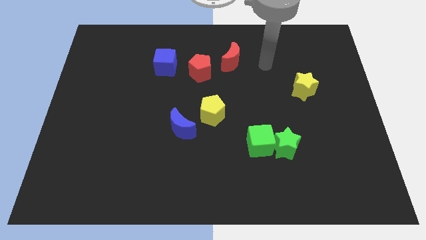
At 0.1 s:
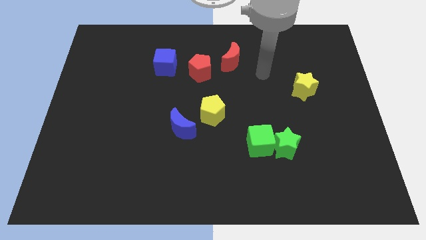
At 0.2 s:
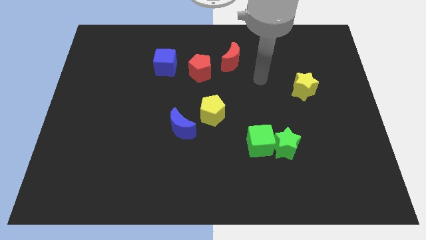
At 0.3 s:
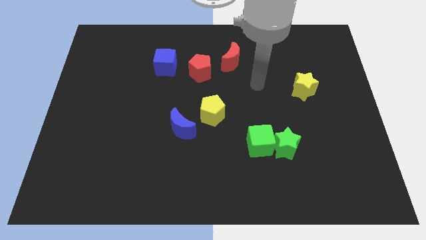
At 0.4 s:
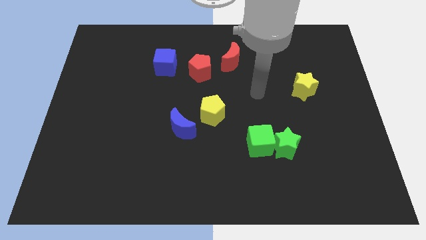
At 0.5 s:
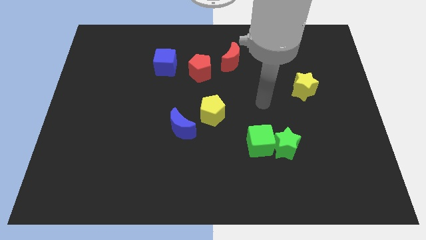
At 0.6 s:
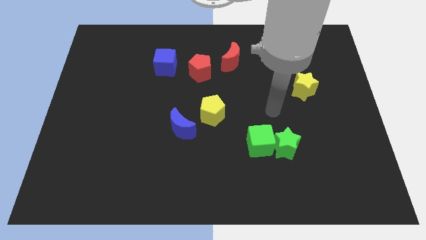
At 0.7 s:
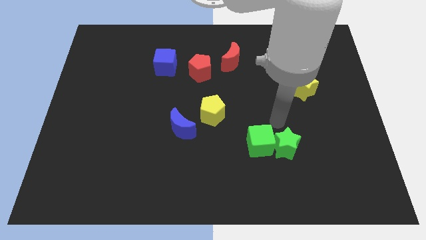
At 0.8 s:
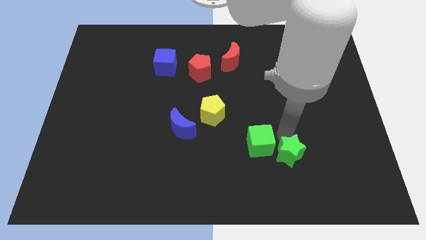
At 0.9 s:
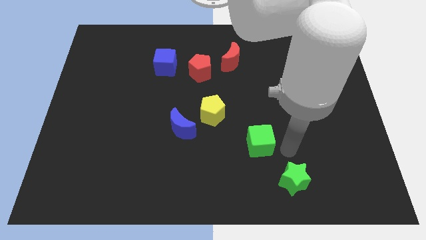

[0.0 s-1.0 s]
separate the green cube from the green star

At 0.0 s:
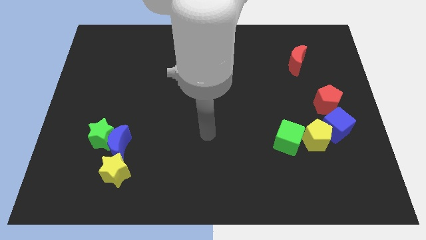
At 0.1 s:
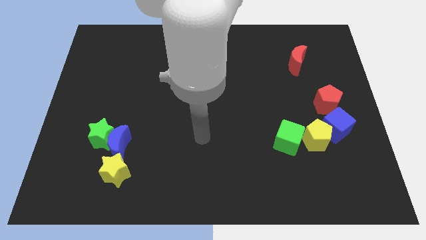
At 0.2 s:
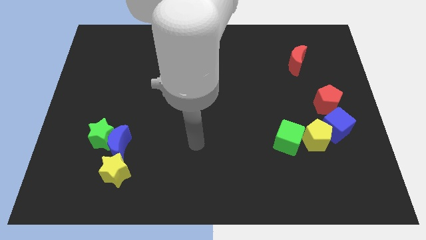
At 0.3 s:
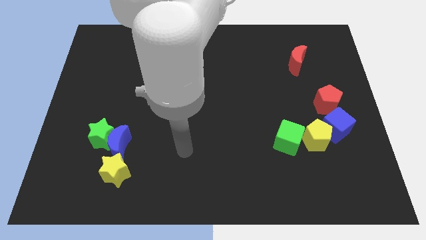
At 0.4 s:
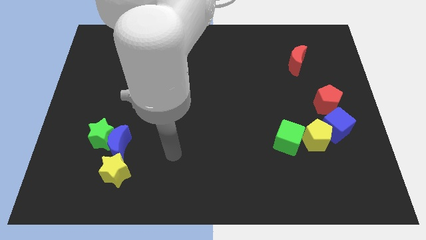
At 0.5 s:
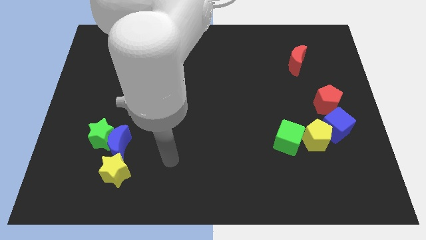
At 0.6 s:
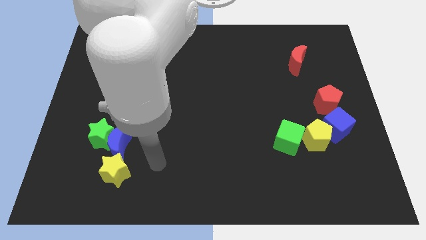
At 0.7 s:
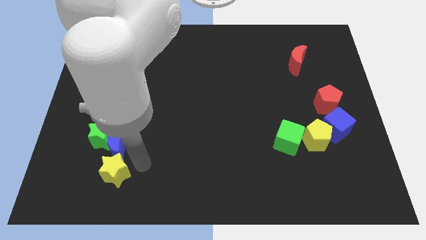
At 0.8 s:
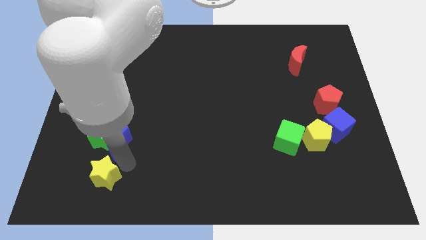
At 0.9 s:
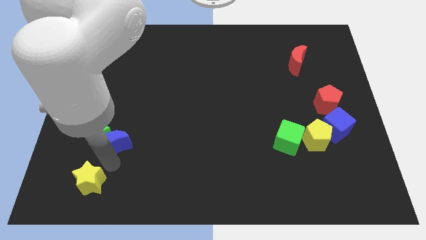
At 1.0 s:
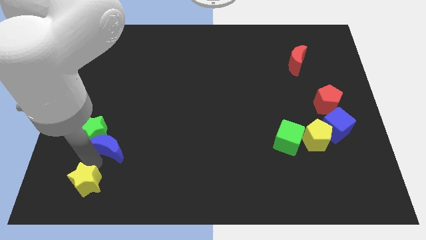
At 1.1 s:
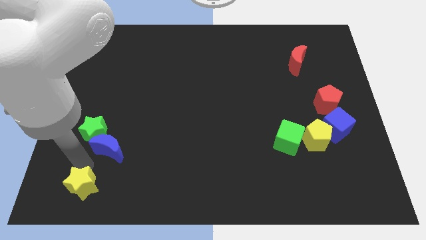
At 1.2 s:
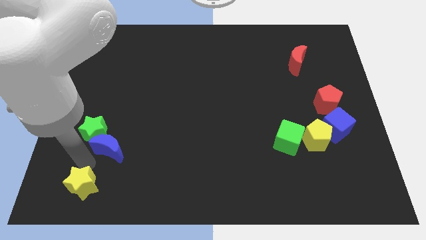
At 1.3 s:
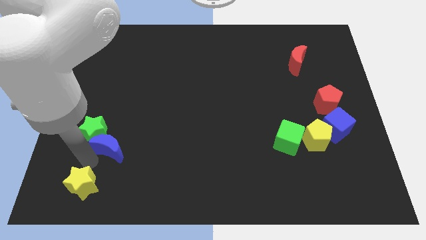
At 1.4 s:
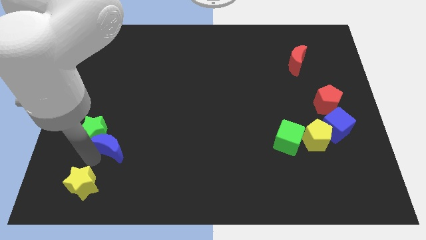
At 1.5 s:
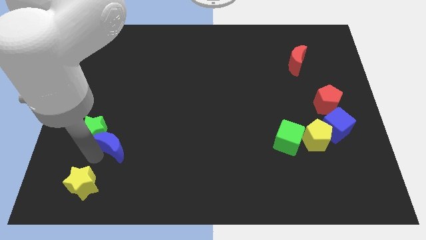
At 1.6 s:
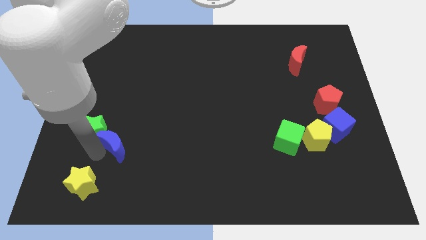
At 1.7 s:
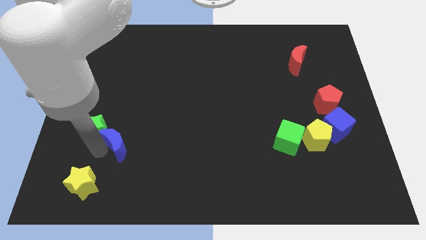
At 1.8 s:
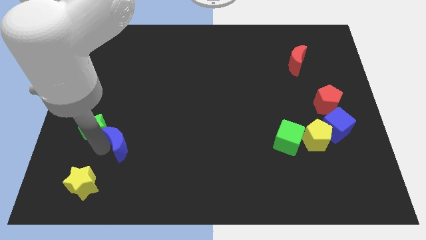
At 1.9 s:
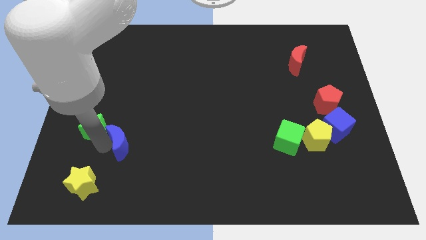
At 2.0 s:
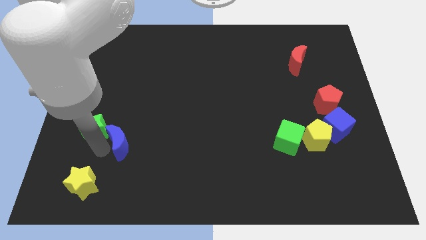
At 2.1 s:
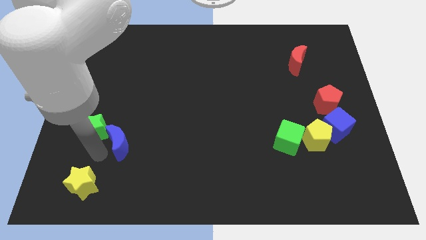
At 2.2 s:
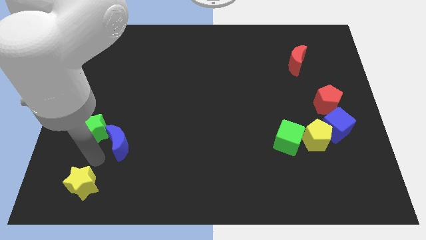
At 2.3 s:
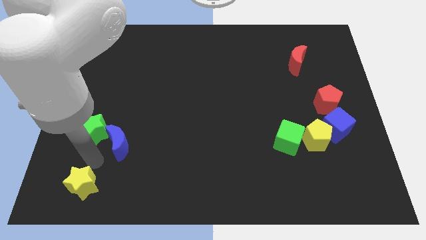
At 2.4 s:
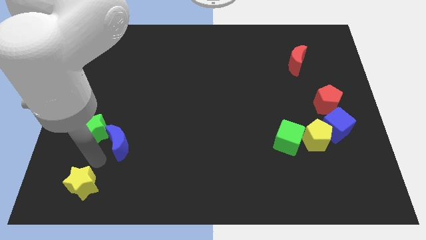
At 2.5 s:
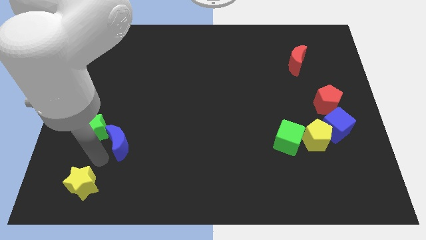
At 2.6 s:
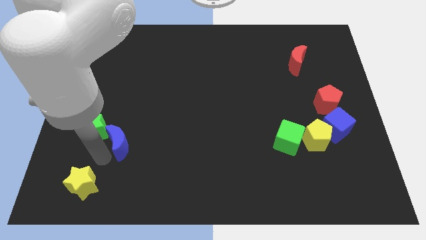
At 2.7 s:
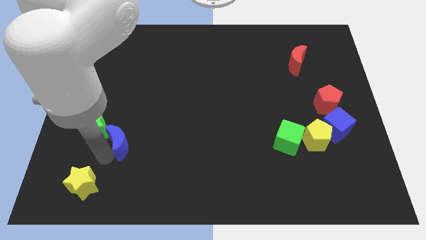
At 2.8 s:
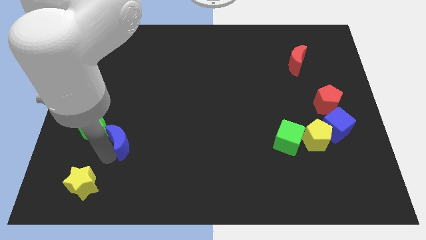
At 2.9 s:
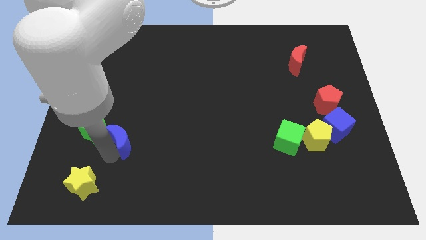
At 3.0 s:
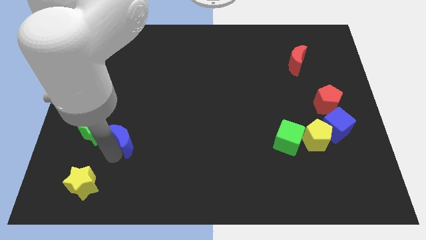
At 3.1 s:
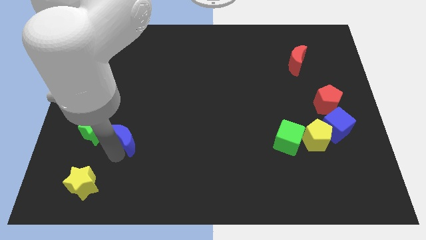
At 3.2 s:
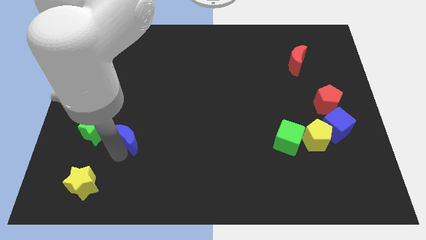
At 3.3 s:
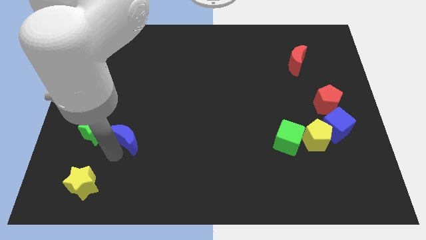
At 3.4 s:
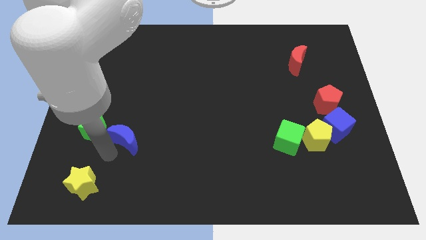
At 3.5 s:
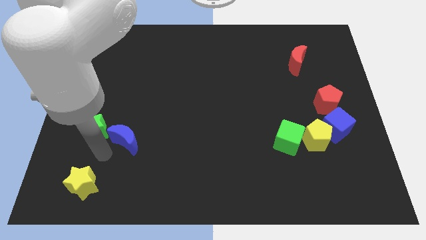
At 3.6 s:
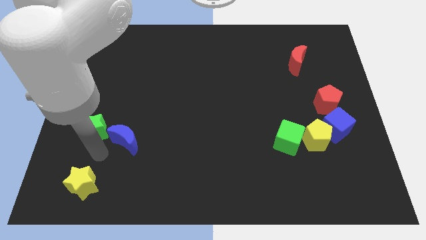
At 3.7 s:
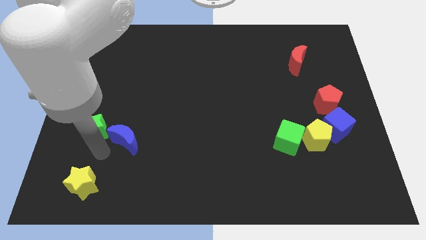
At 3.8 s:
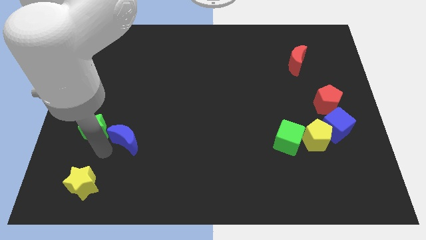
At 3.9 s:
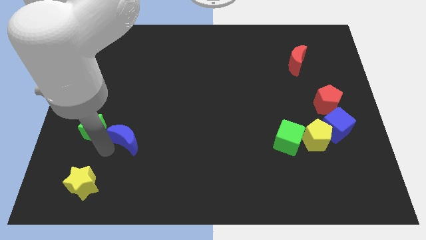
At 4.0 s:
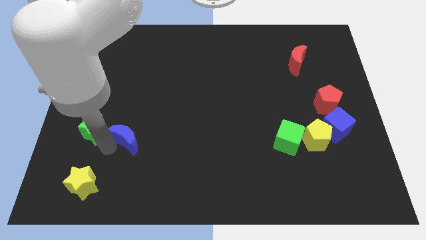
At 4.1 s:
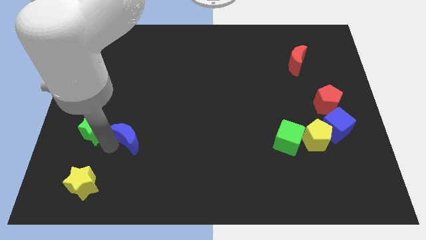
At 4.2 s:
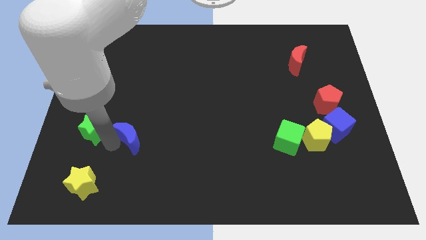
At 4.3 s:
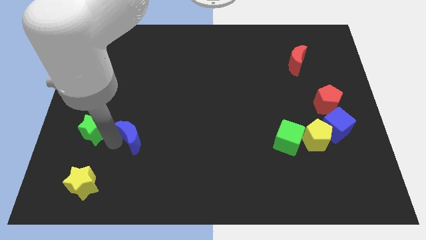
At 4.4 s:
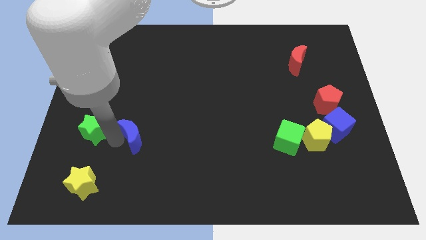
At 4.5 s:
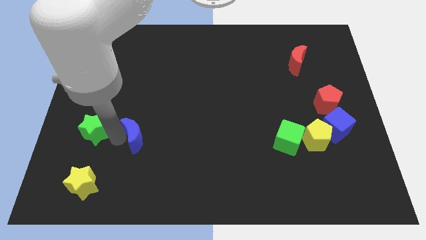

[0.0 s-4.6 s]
pull the blue moon apart from the green star and yellow star

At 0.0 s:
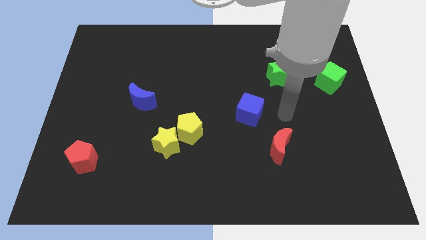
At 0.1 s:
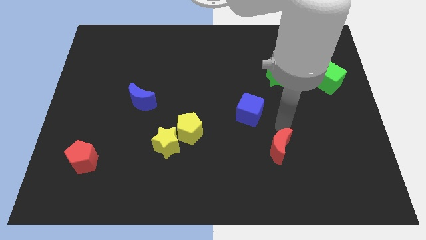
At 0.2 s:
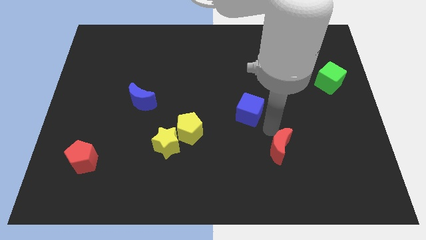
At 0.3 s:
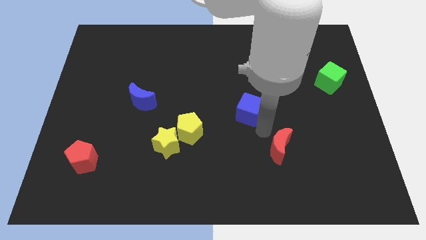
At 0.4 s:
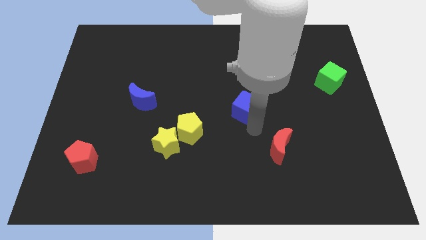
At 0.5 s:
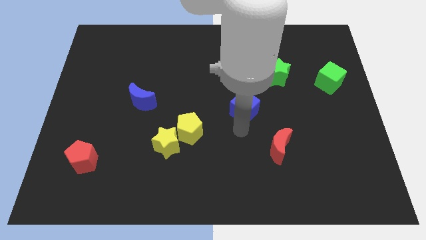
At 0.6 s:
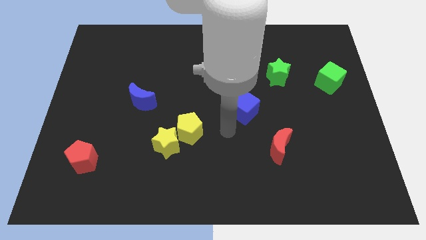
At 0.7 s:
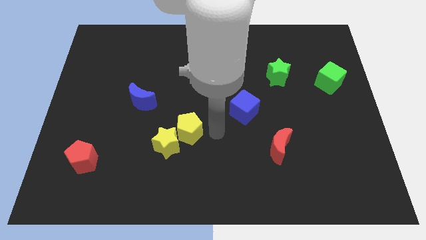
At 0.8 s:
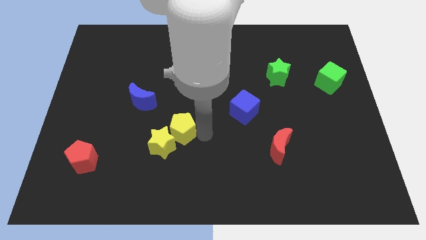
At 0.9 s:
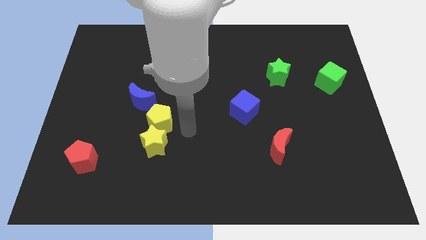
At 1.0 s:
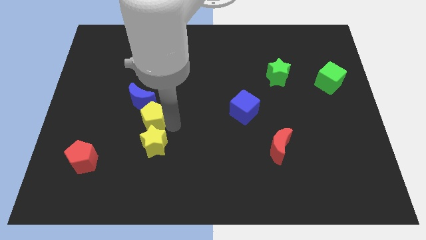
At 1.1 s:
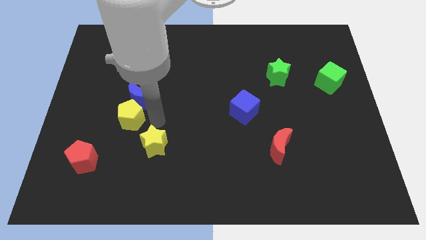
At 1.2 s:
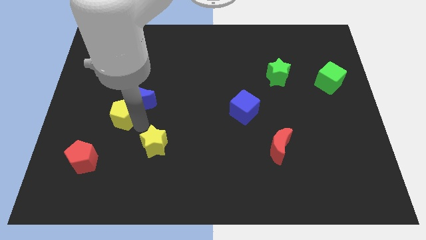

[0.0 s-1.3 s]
pull the yellow star apart from the yellow pentagon

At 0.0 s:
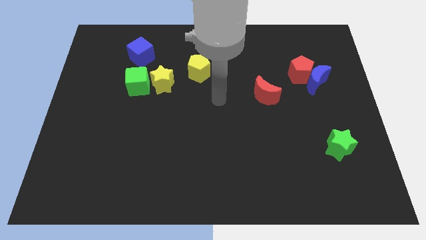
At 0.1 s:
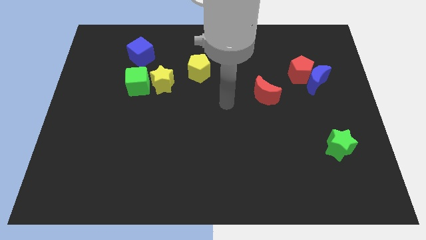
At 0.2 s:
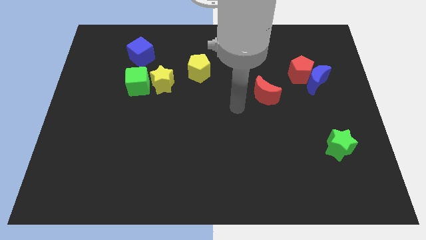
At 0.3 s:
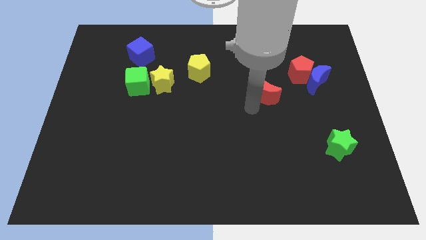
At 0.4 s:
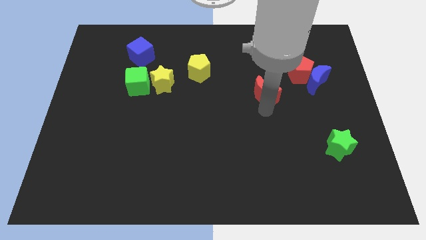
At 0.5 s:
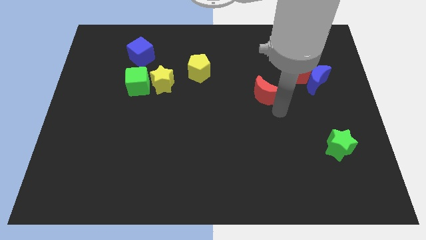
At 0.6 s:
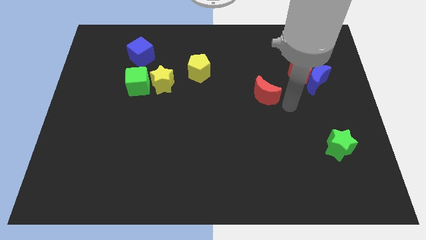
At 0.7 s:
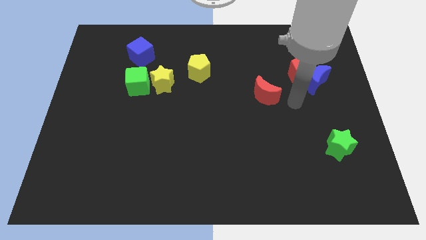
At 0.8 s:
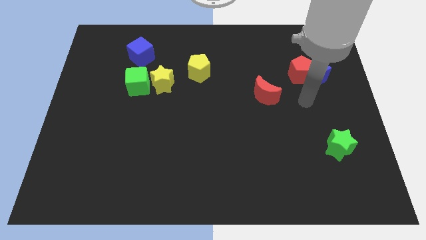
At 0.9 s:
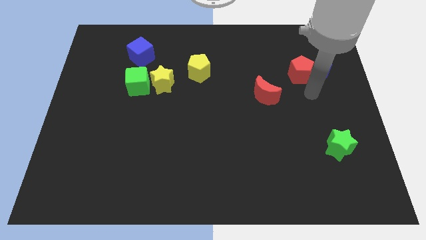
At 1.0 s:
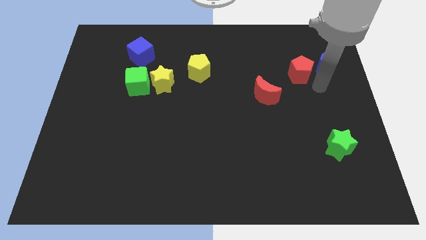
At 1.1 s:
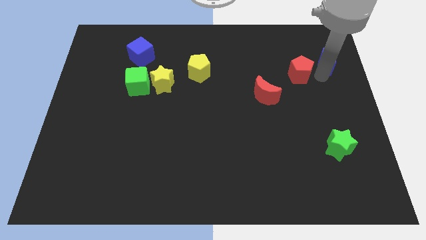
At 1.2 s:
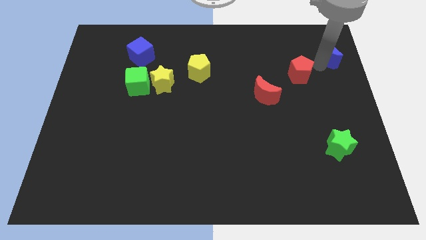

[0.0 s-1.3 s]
separate the red pentagon from the blue moon

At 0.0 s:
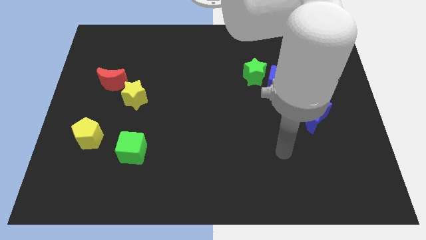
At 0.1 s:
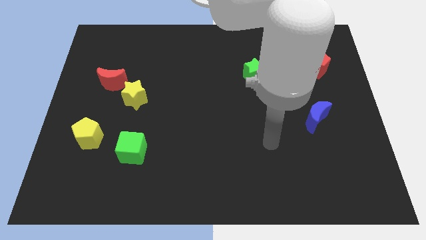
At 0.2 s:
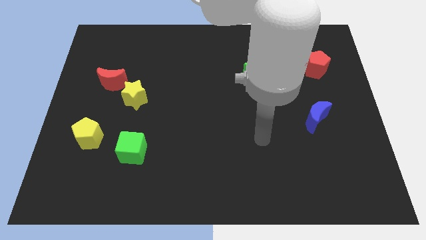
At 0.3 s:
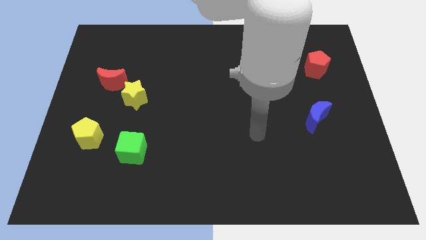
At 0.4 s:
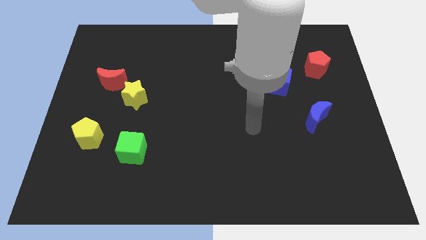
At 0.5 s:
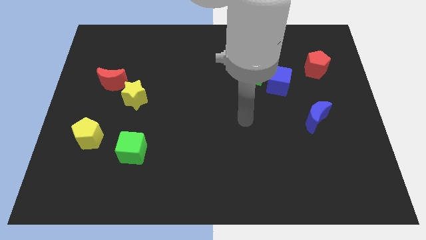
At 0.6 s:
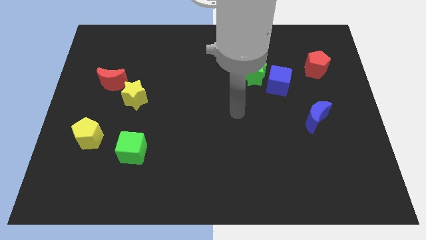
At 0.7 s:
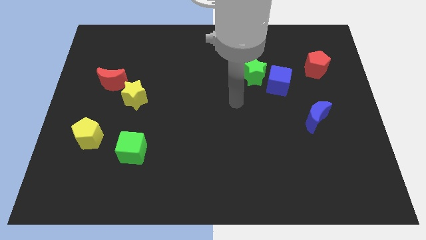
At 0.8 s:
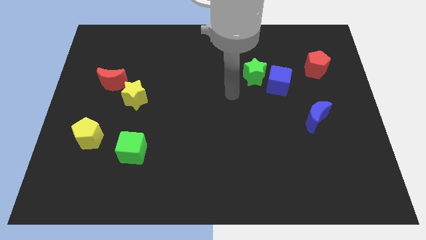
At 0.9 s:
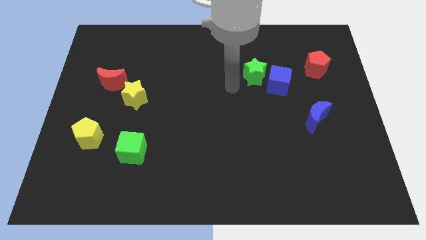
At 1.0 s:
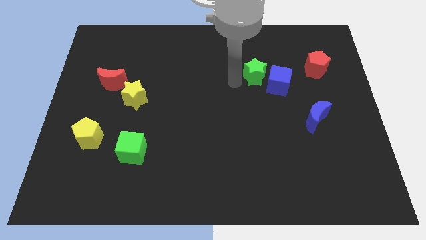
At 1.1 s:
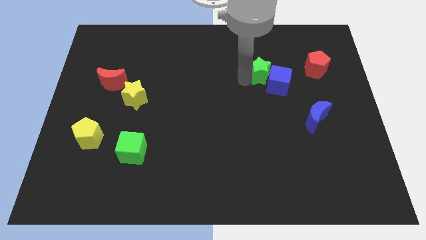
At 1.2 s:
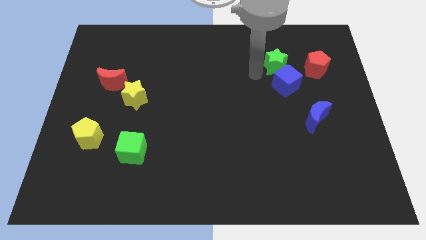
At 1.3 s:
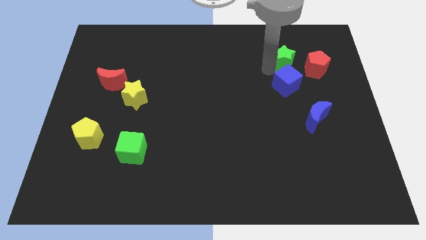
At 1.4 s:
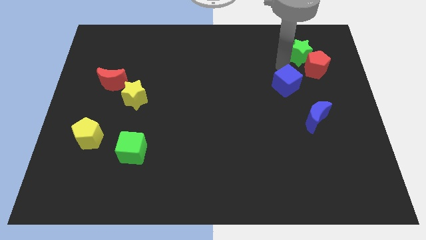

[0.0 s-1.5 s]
pull the blue cube apart from the green star
